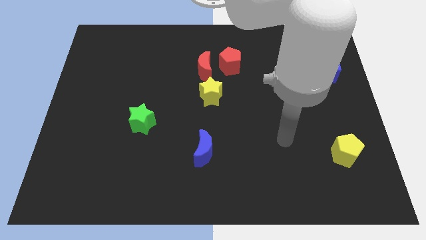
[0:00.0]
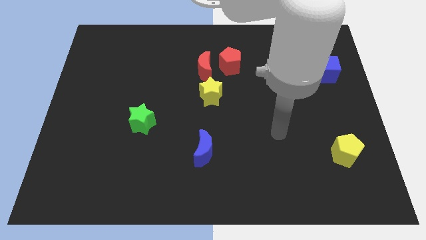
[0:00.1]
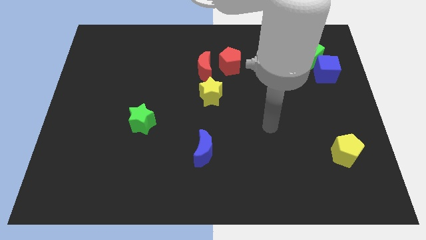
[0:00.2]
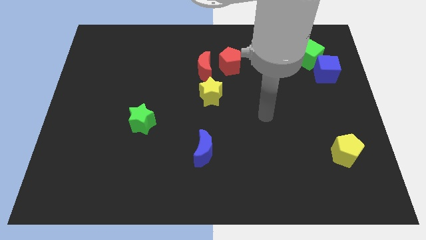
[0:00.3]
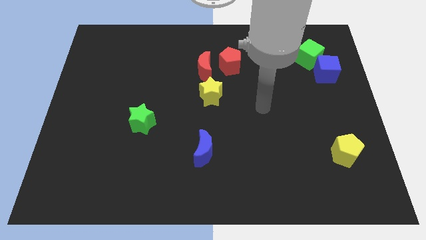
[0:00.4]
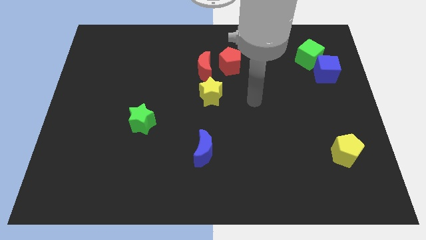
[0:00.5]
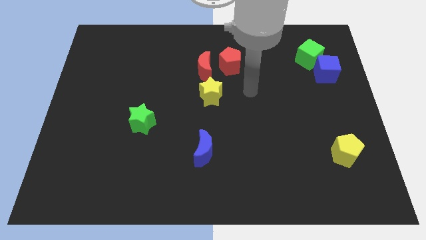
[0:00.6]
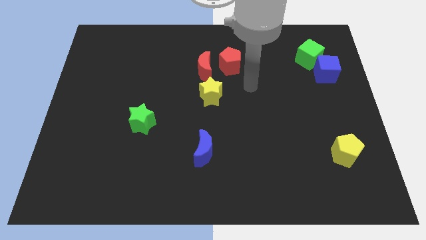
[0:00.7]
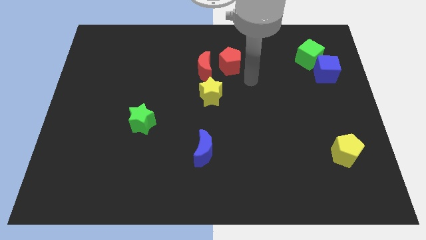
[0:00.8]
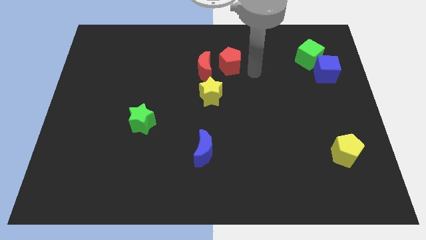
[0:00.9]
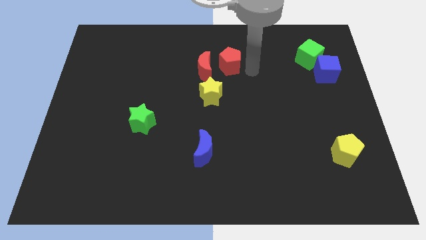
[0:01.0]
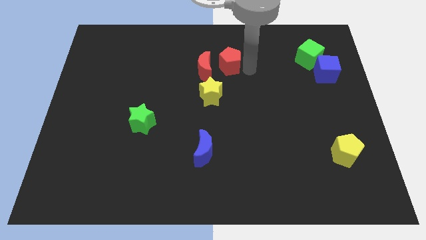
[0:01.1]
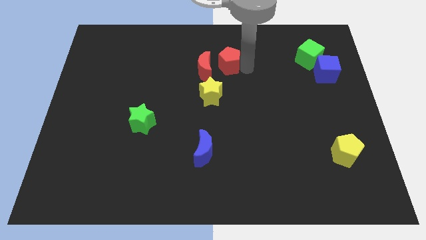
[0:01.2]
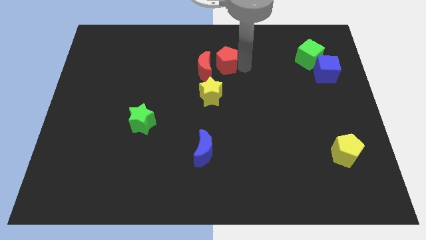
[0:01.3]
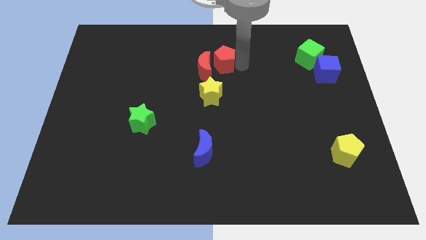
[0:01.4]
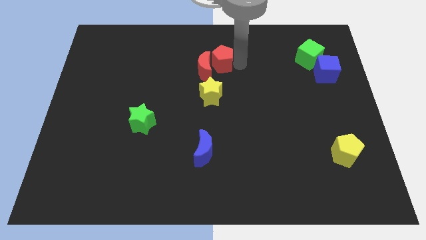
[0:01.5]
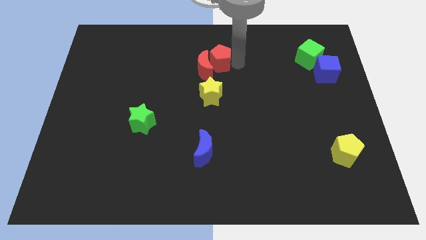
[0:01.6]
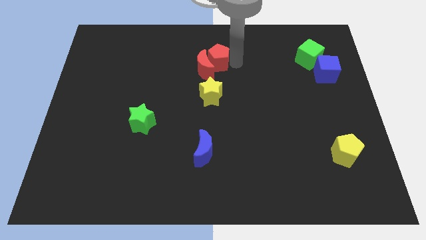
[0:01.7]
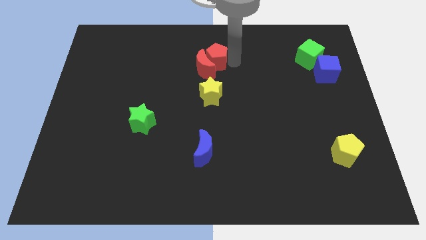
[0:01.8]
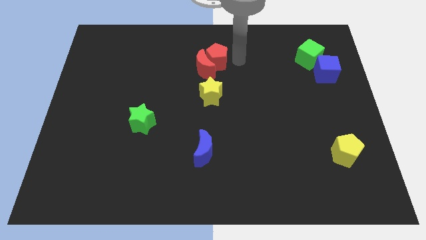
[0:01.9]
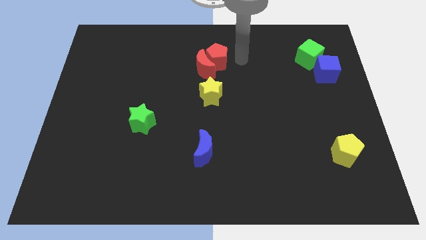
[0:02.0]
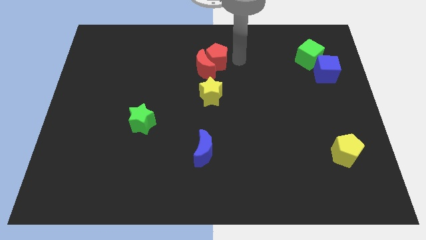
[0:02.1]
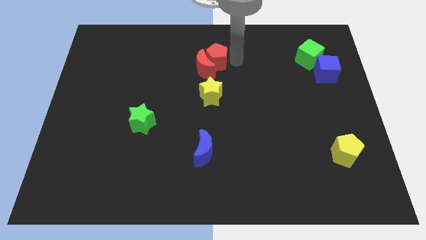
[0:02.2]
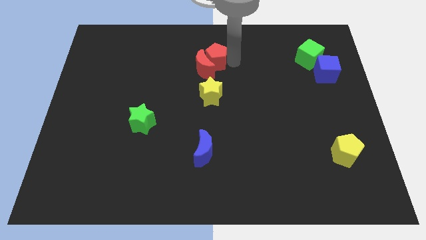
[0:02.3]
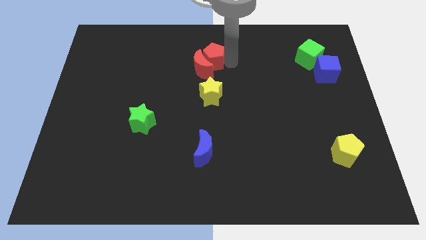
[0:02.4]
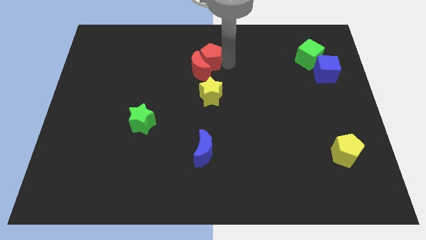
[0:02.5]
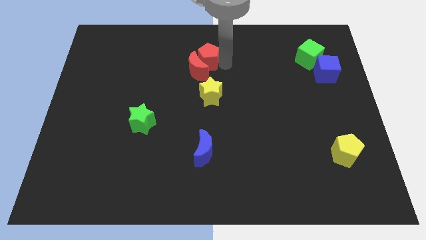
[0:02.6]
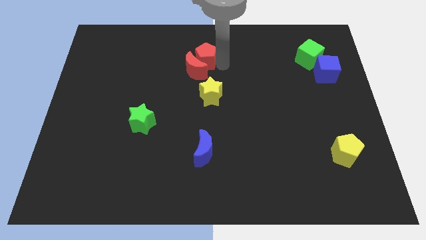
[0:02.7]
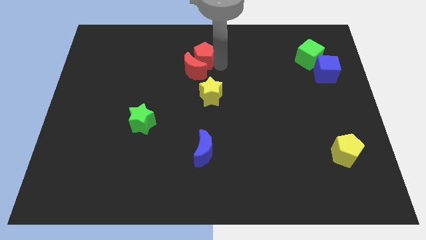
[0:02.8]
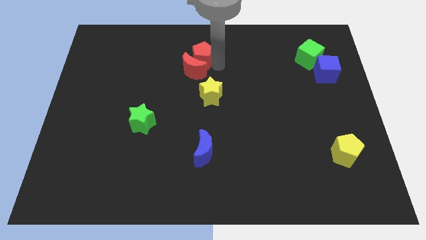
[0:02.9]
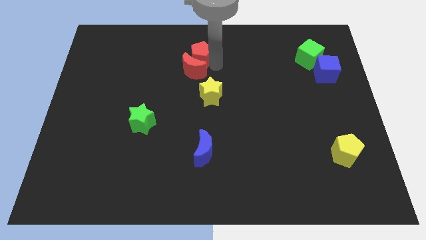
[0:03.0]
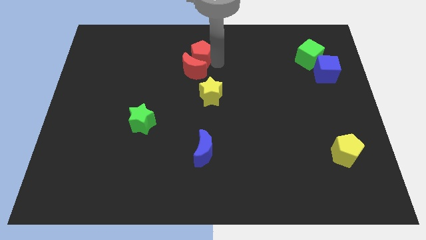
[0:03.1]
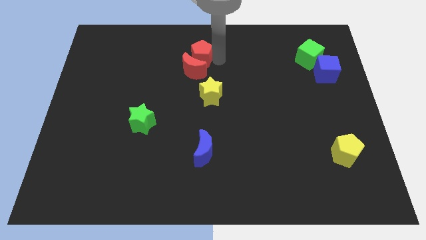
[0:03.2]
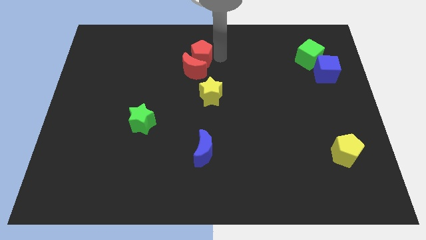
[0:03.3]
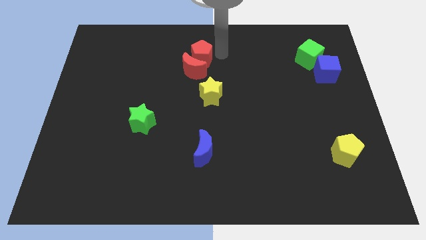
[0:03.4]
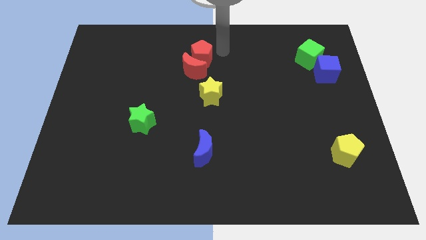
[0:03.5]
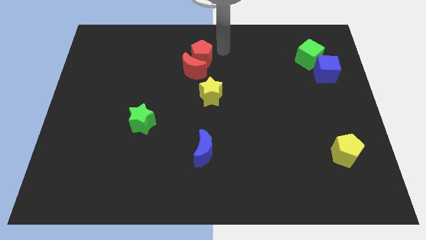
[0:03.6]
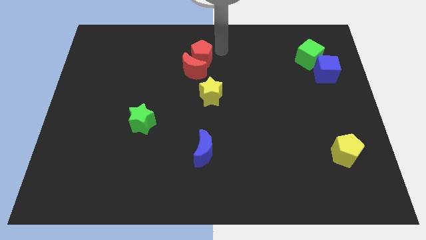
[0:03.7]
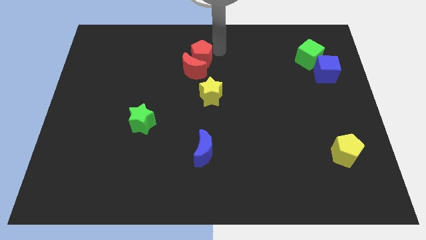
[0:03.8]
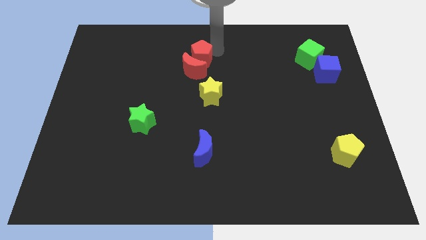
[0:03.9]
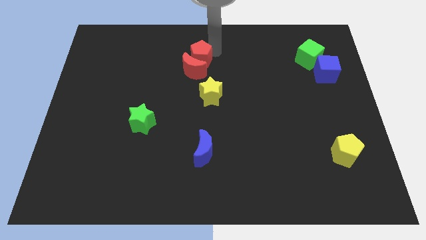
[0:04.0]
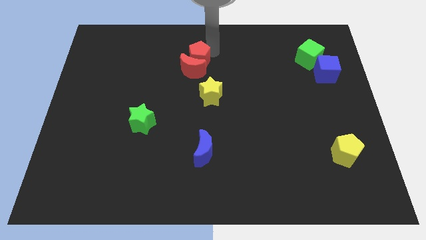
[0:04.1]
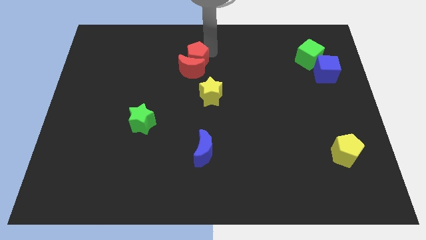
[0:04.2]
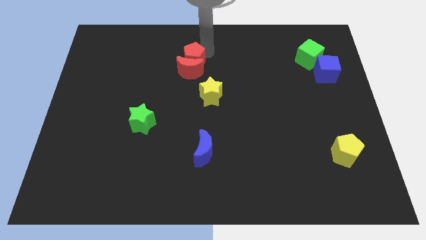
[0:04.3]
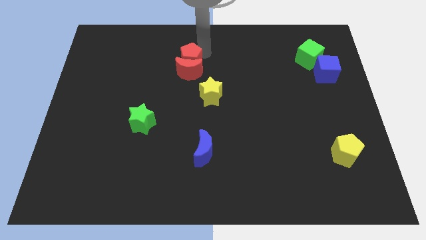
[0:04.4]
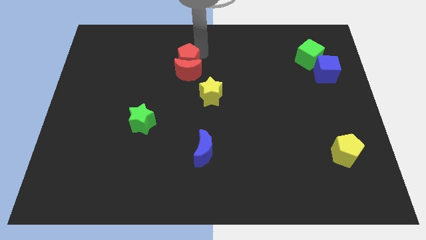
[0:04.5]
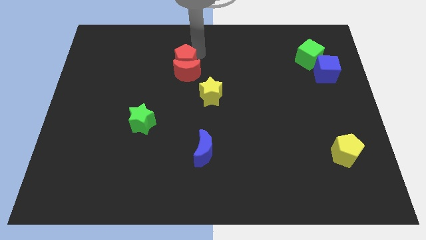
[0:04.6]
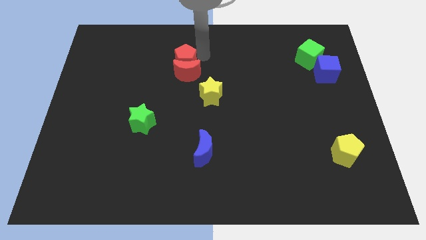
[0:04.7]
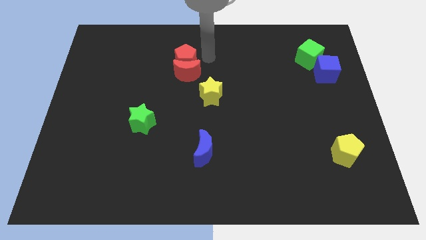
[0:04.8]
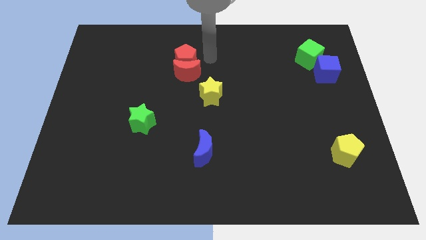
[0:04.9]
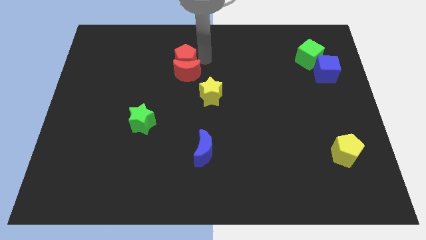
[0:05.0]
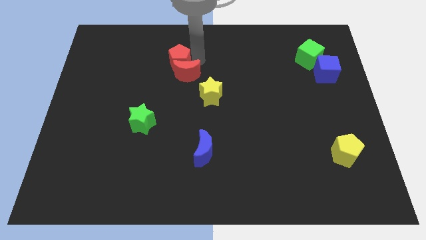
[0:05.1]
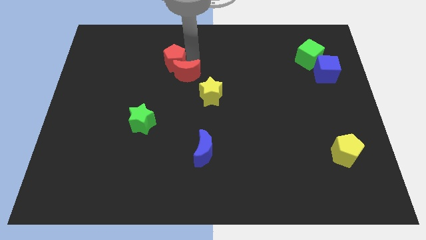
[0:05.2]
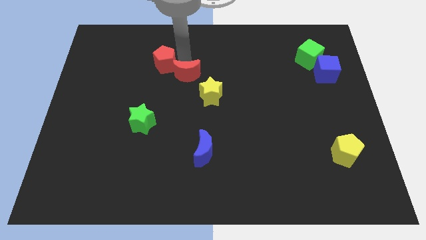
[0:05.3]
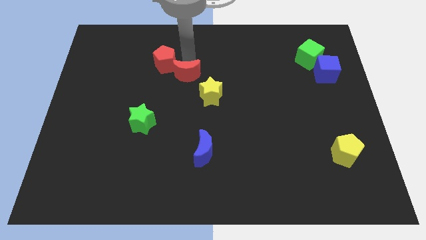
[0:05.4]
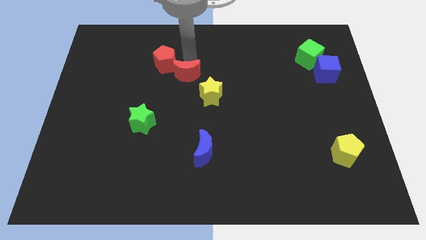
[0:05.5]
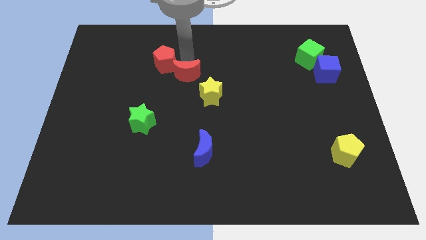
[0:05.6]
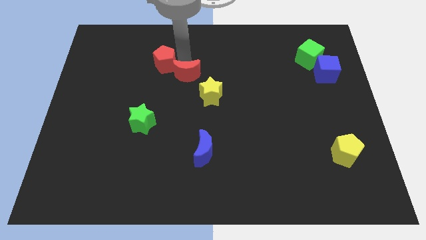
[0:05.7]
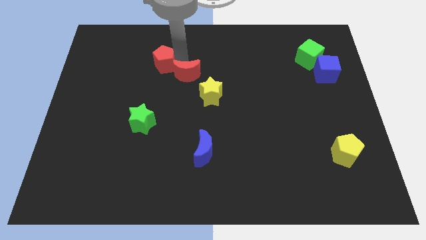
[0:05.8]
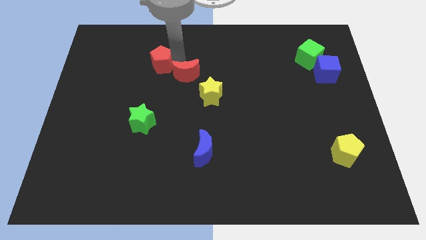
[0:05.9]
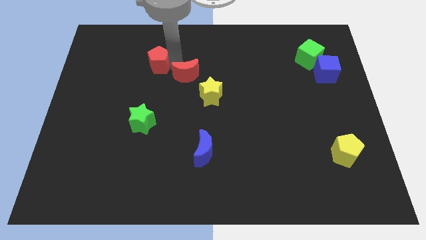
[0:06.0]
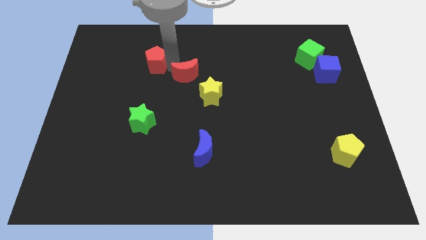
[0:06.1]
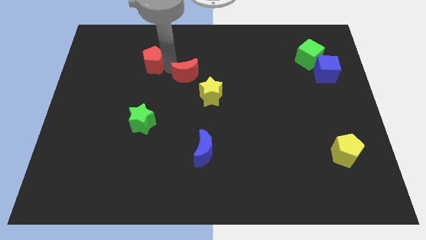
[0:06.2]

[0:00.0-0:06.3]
move the red pentagon to the left

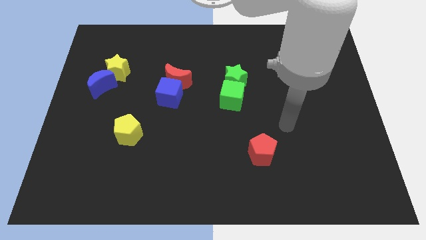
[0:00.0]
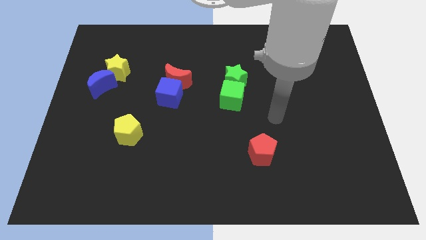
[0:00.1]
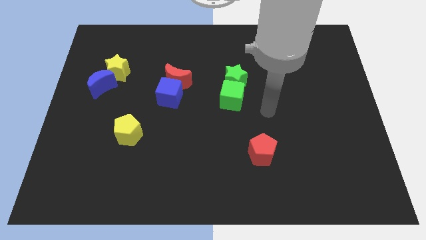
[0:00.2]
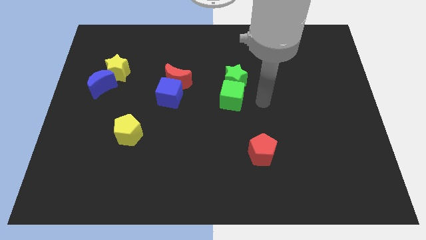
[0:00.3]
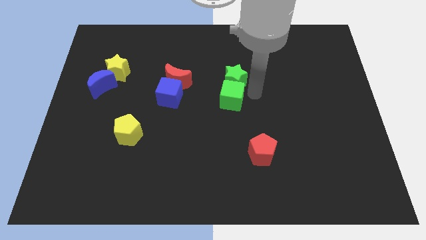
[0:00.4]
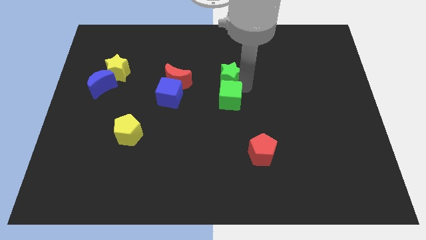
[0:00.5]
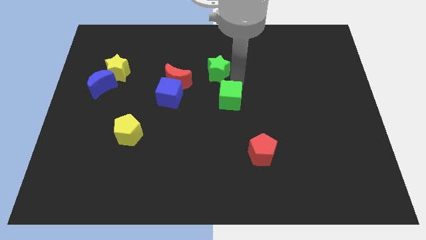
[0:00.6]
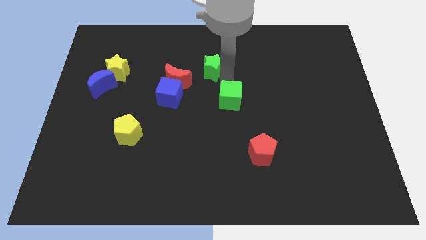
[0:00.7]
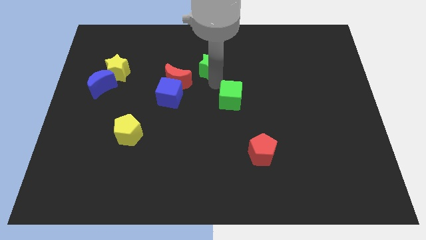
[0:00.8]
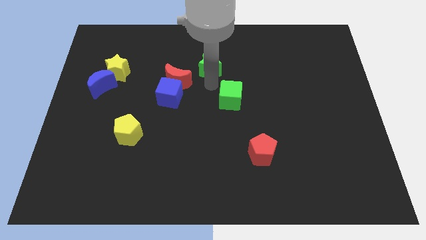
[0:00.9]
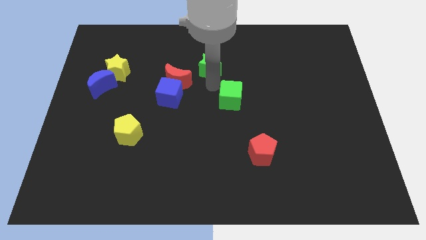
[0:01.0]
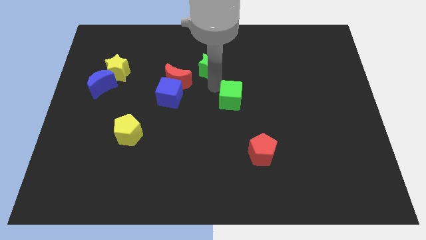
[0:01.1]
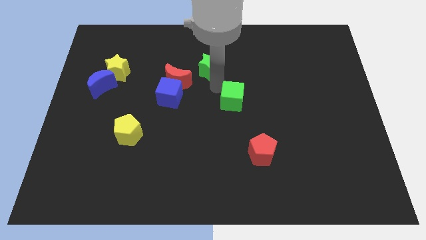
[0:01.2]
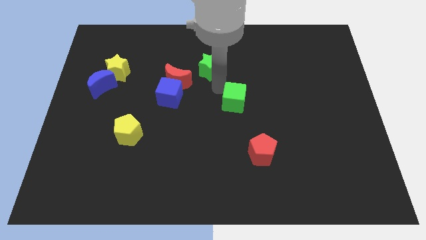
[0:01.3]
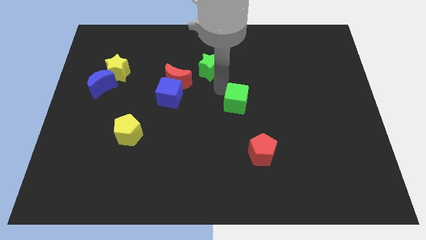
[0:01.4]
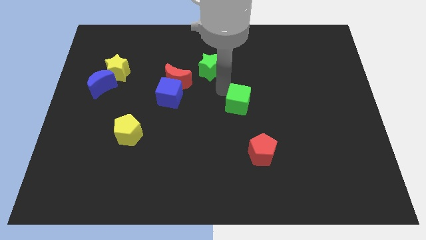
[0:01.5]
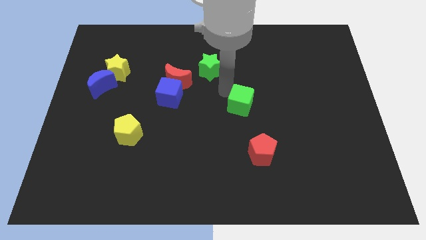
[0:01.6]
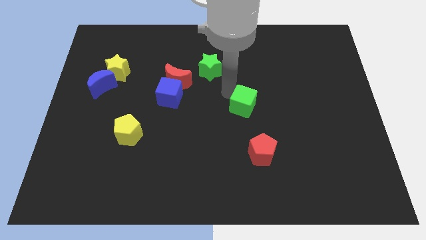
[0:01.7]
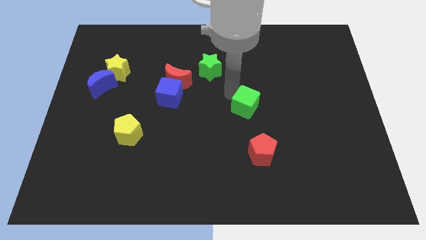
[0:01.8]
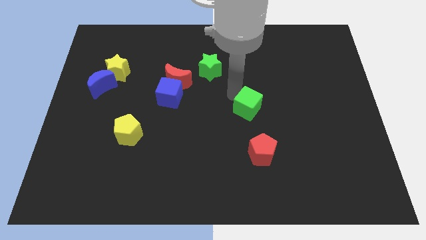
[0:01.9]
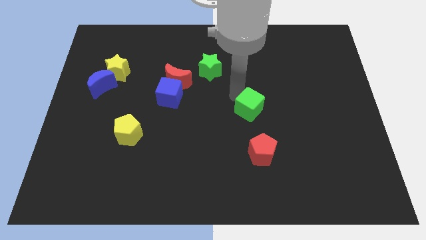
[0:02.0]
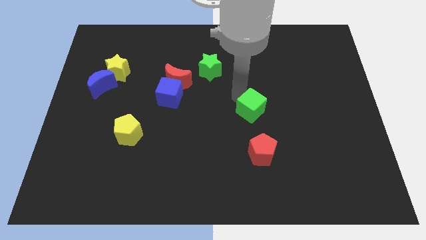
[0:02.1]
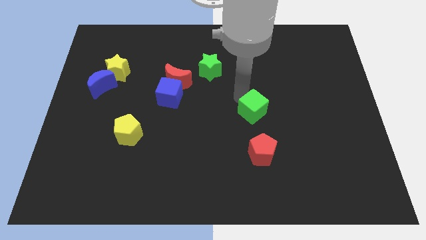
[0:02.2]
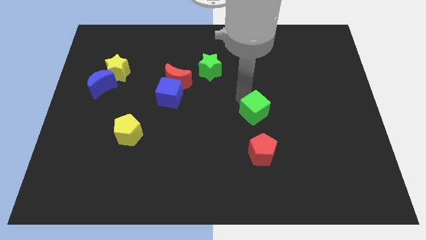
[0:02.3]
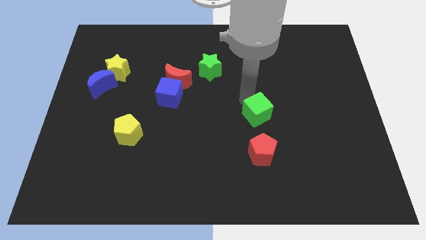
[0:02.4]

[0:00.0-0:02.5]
push the green cube somewhat down and right diagonally
